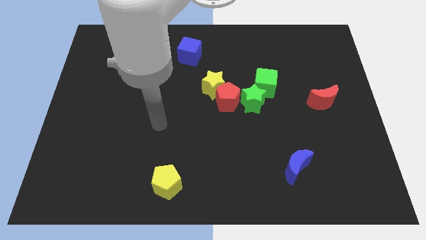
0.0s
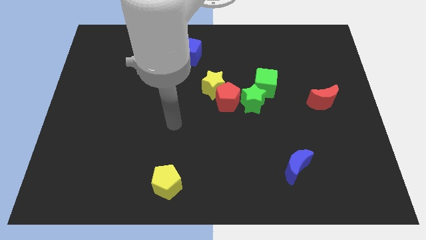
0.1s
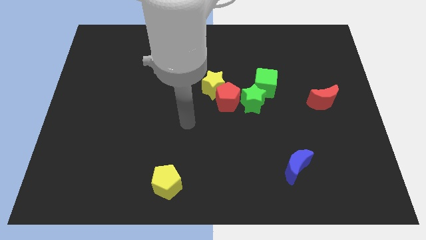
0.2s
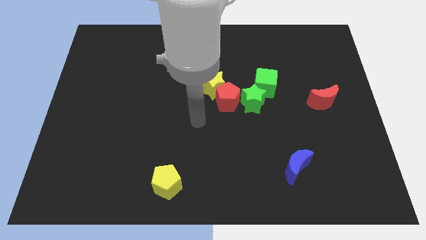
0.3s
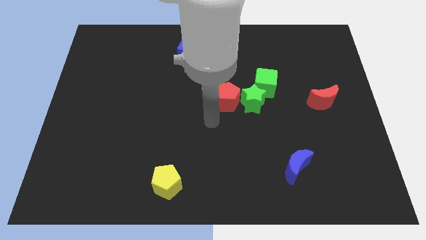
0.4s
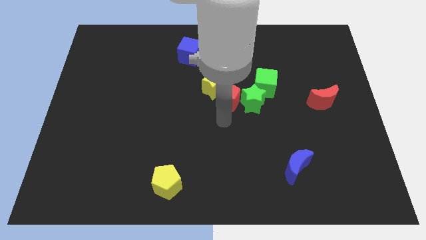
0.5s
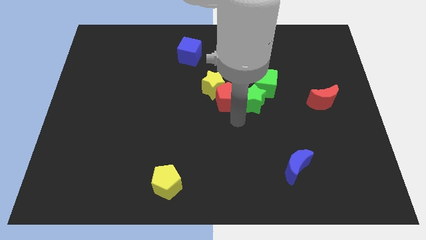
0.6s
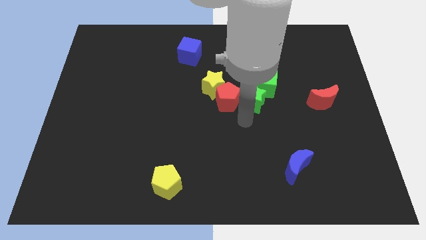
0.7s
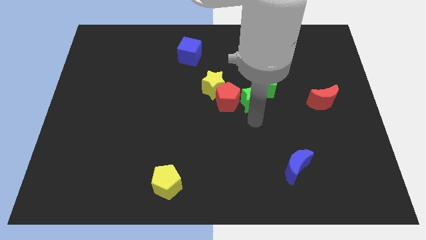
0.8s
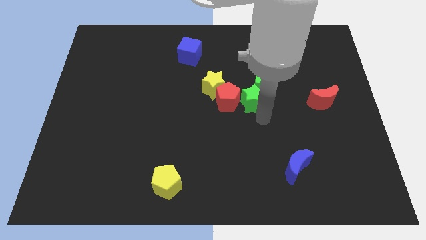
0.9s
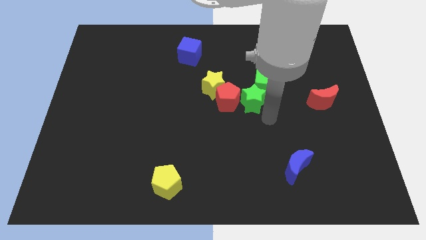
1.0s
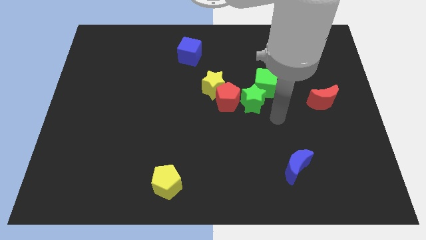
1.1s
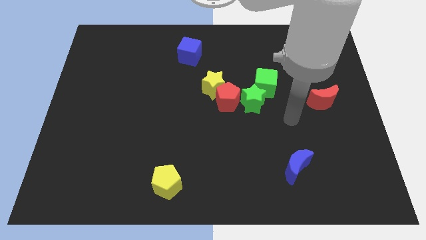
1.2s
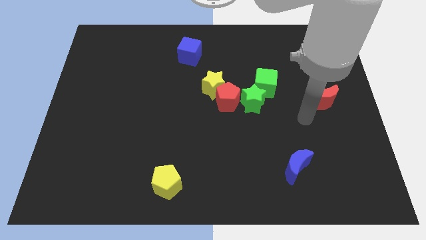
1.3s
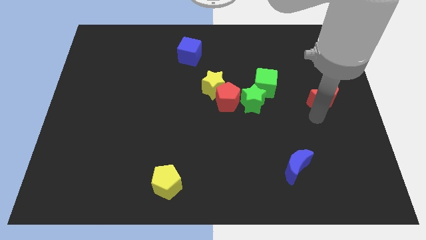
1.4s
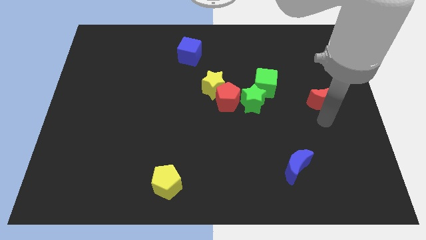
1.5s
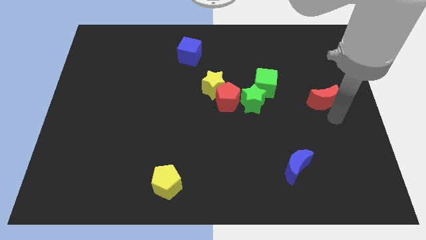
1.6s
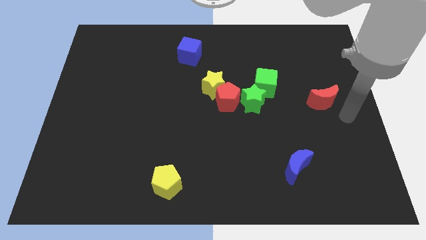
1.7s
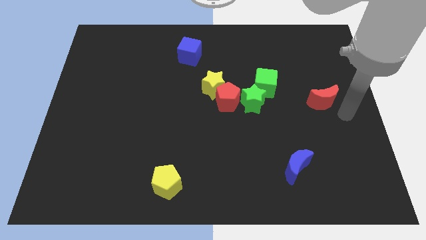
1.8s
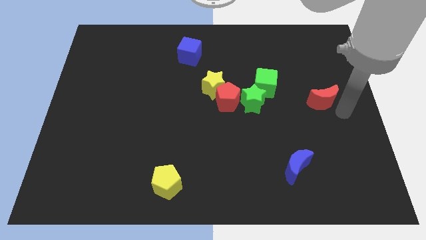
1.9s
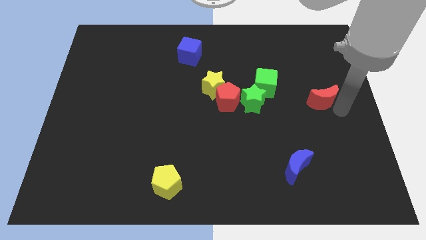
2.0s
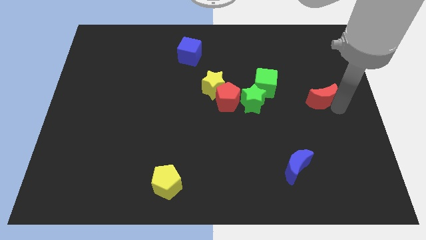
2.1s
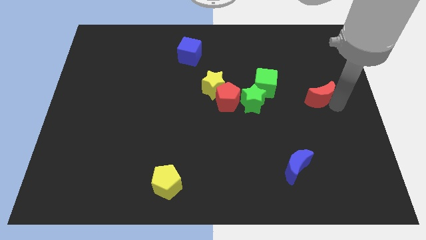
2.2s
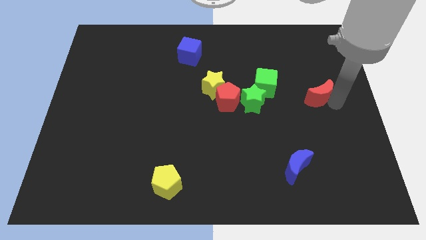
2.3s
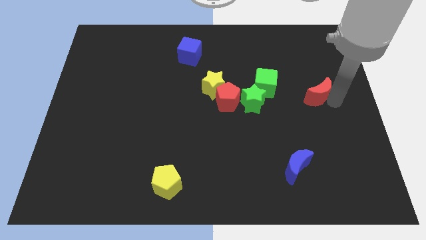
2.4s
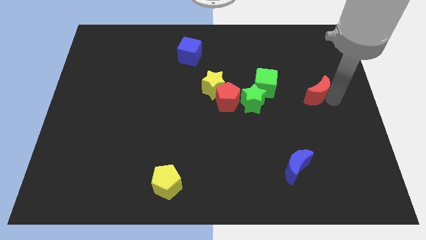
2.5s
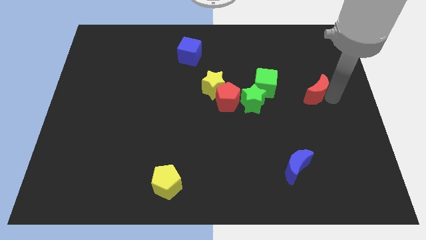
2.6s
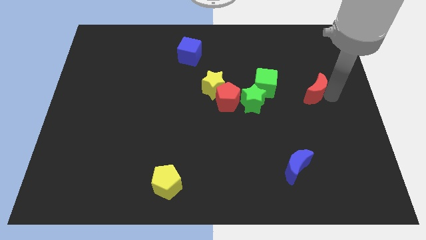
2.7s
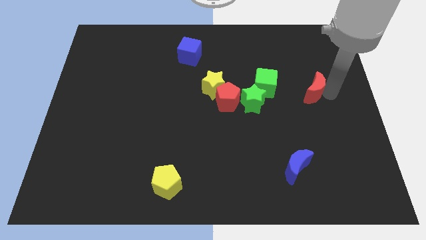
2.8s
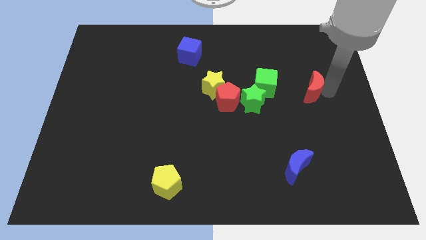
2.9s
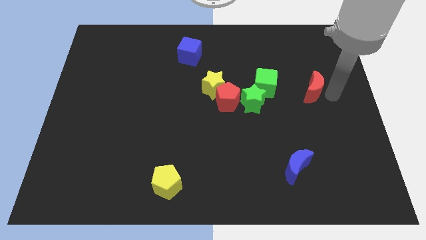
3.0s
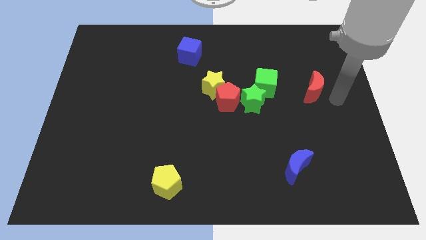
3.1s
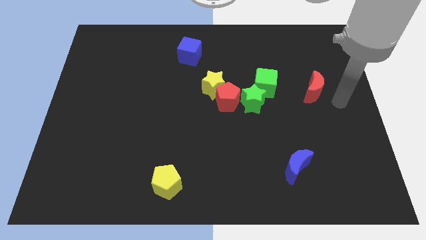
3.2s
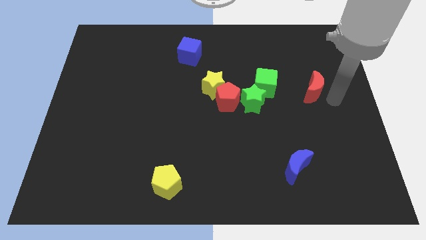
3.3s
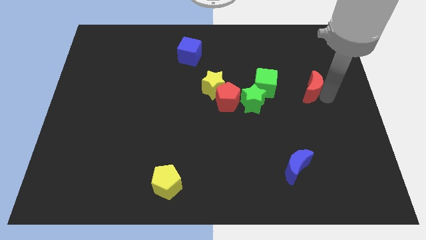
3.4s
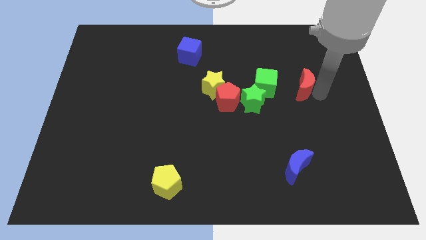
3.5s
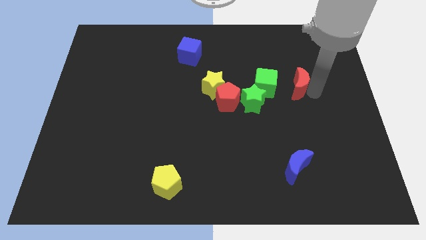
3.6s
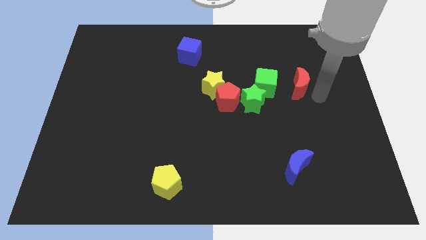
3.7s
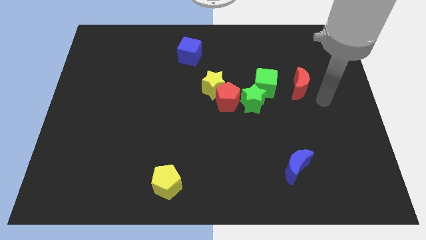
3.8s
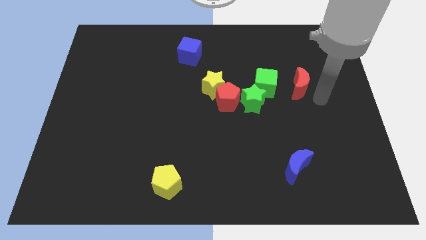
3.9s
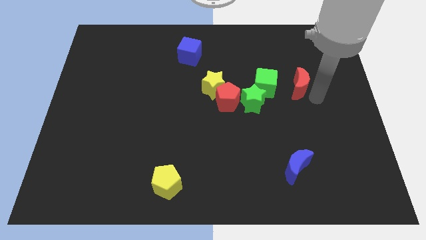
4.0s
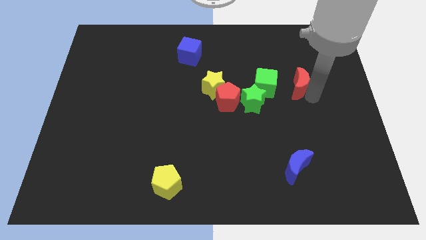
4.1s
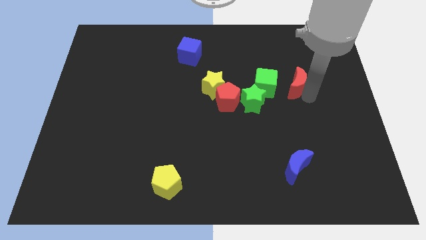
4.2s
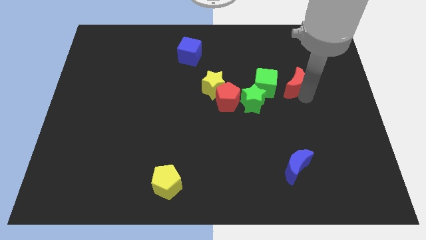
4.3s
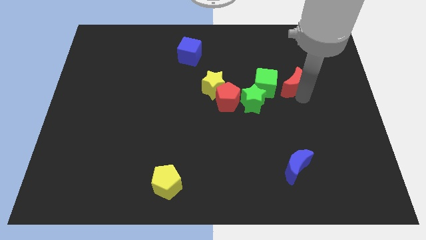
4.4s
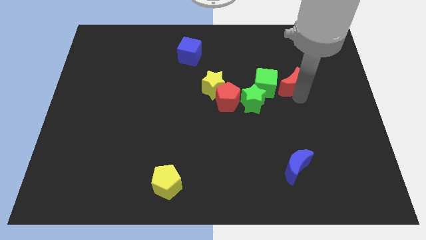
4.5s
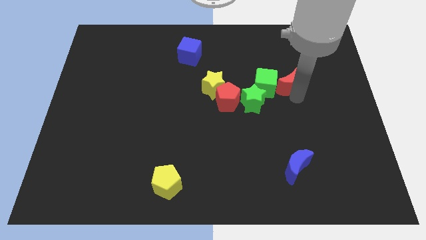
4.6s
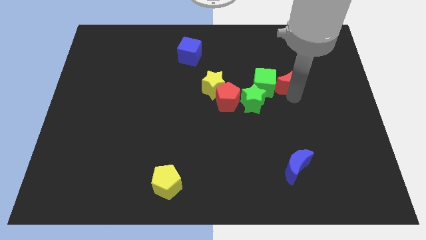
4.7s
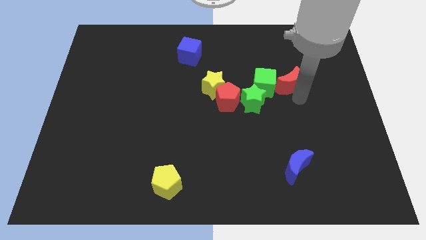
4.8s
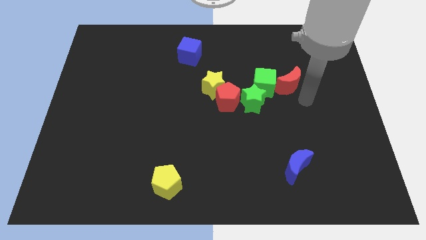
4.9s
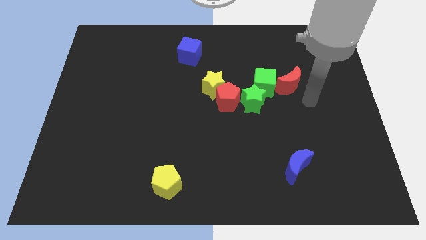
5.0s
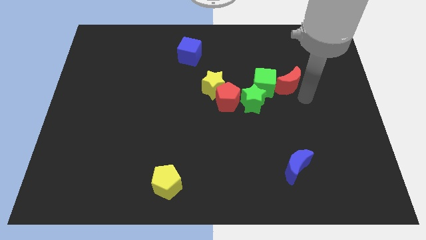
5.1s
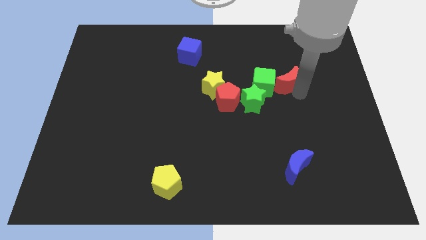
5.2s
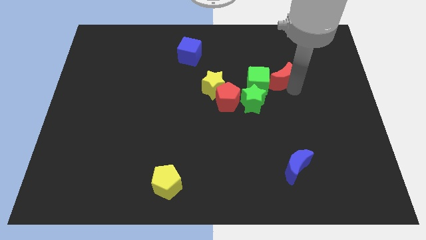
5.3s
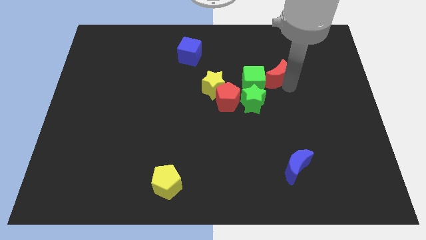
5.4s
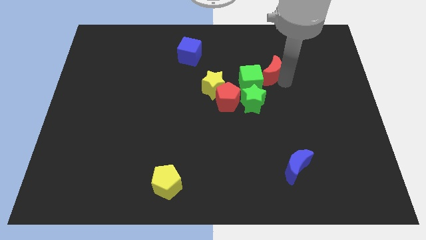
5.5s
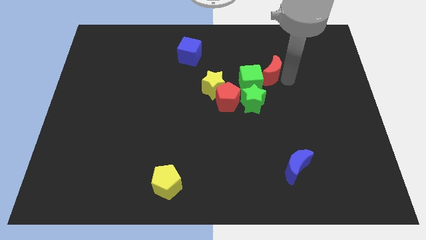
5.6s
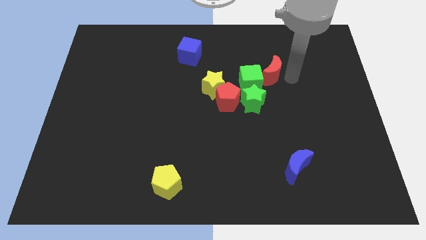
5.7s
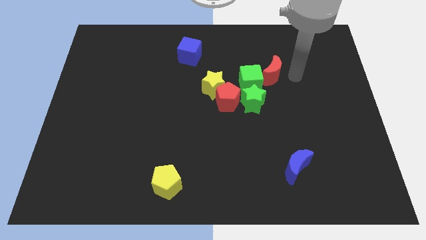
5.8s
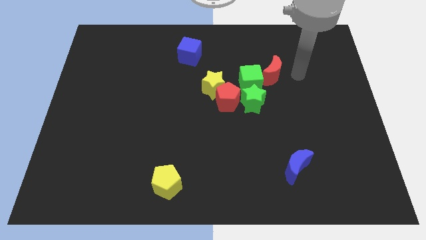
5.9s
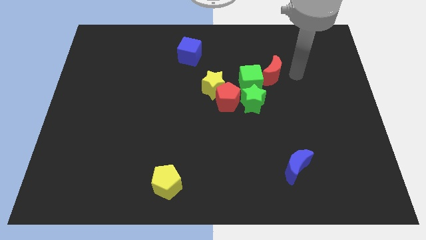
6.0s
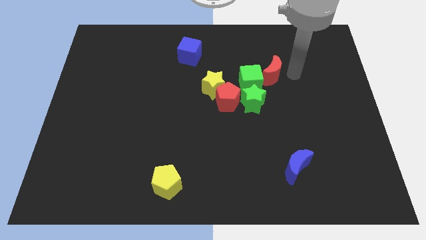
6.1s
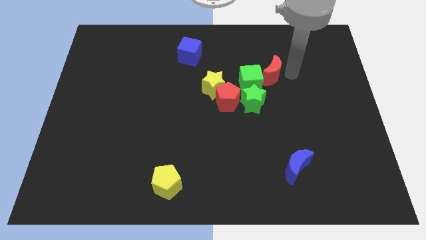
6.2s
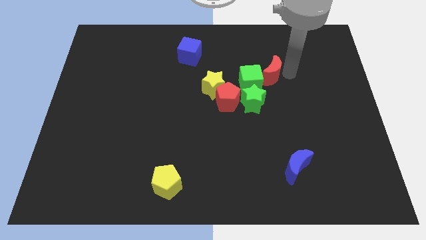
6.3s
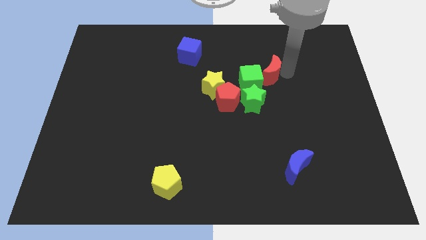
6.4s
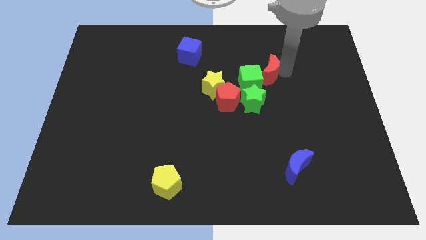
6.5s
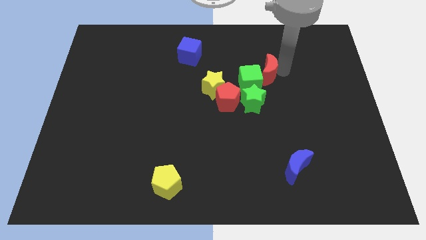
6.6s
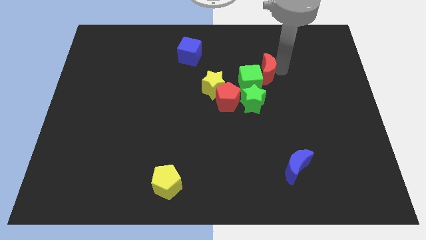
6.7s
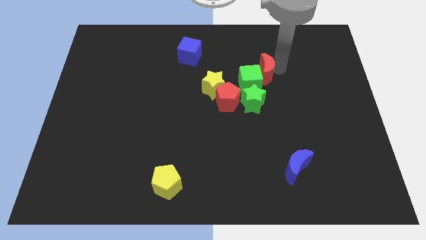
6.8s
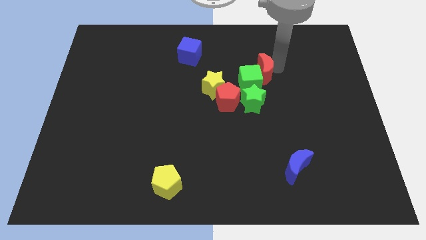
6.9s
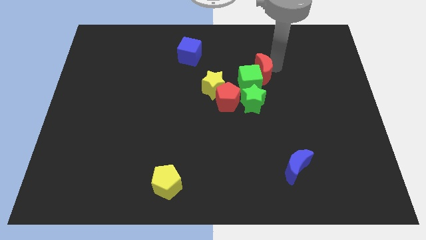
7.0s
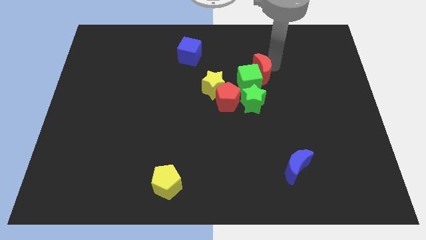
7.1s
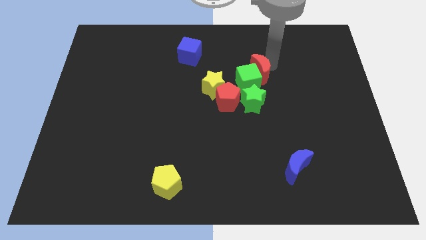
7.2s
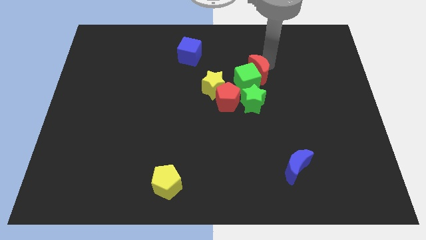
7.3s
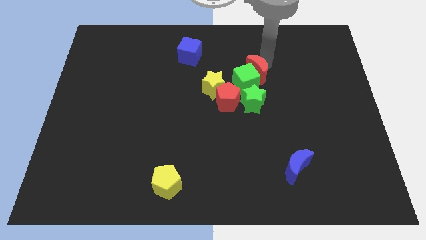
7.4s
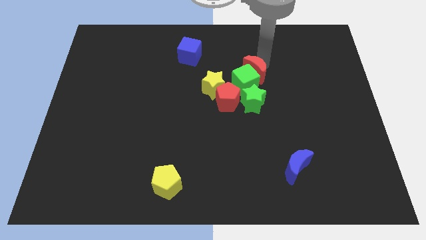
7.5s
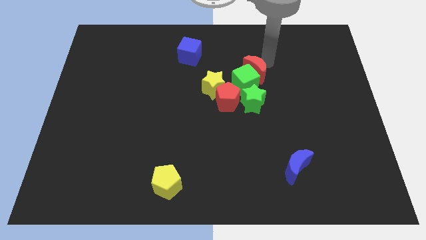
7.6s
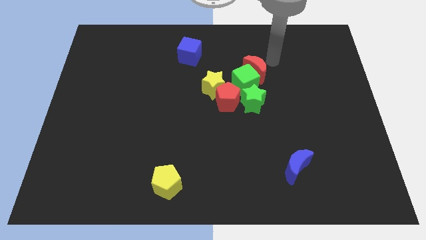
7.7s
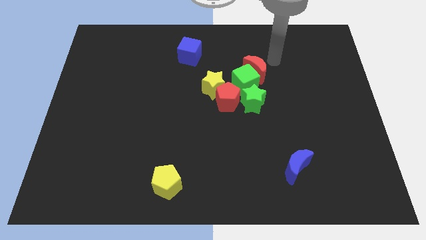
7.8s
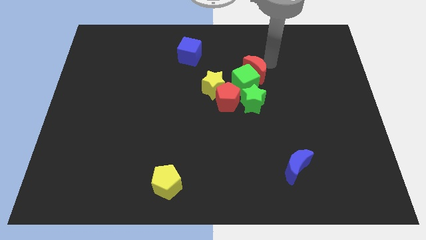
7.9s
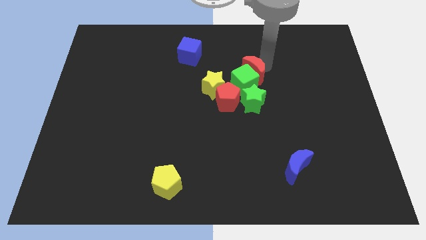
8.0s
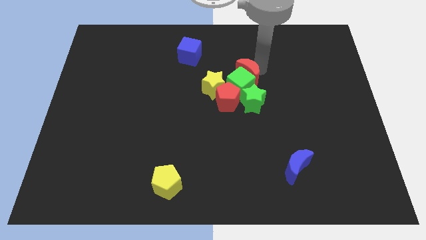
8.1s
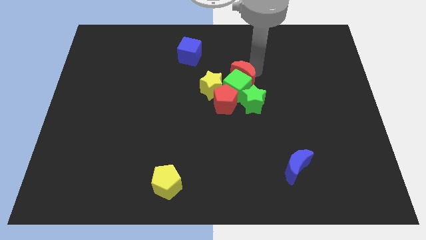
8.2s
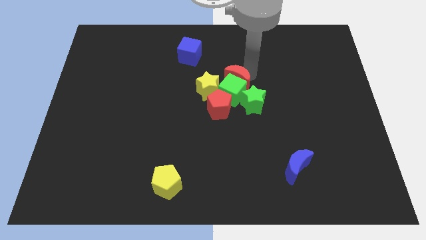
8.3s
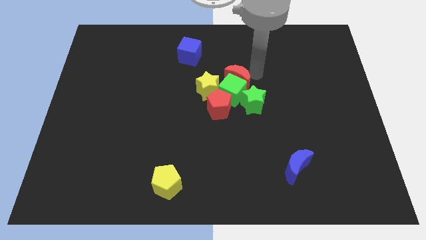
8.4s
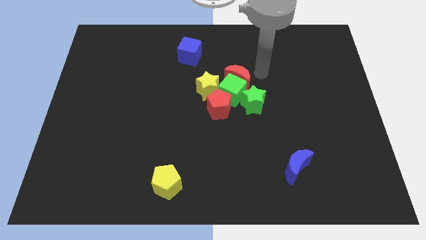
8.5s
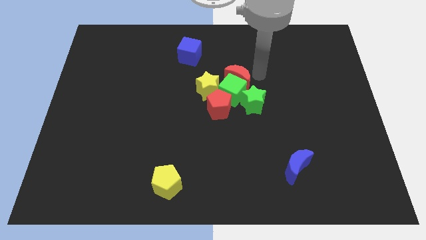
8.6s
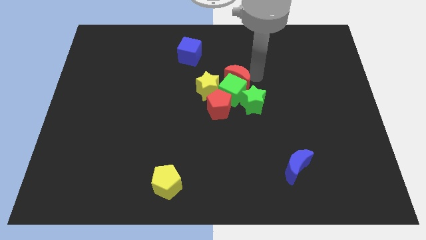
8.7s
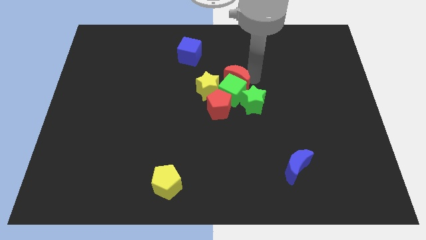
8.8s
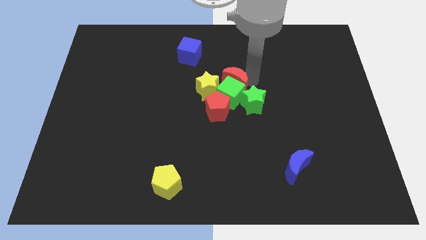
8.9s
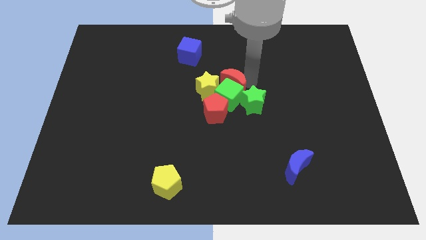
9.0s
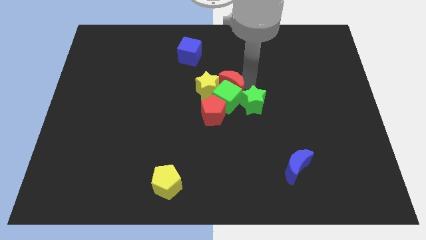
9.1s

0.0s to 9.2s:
push the red moon towards the yellow star
